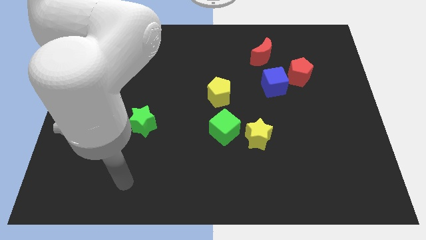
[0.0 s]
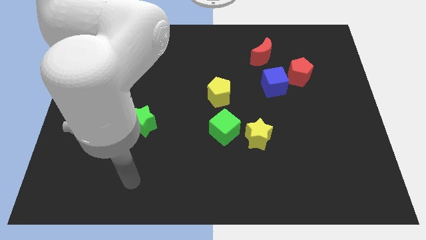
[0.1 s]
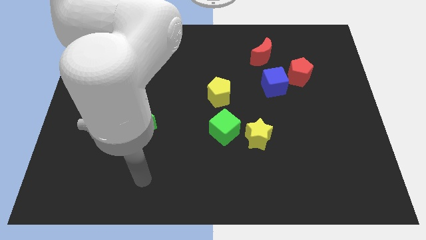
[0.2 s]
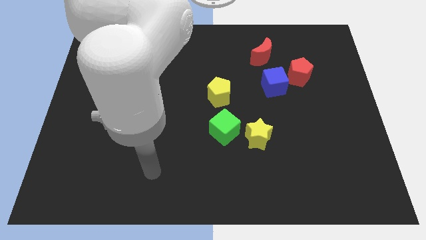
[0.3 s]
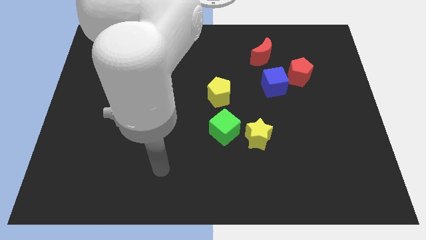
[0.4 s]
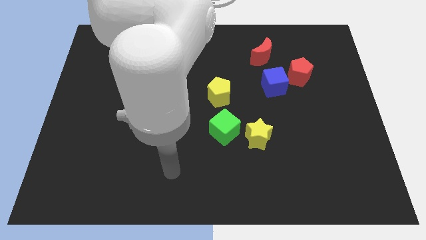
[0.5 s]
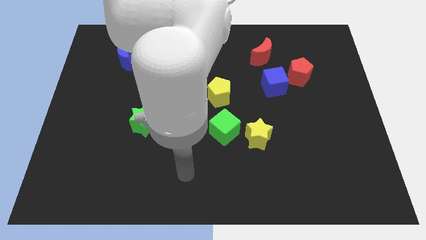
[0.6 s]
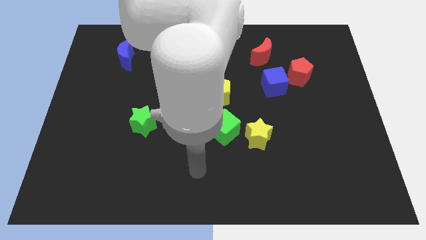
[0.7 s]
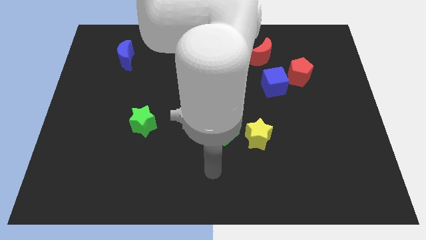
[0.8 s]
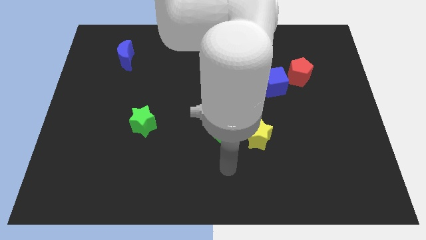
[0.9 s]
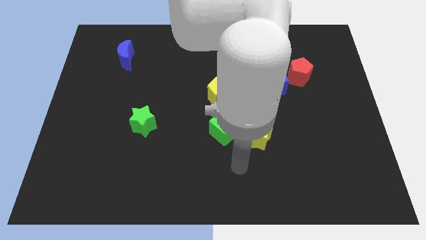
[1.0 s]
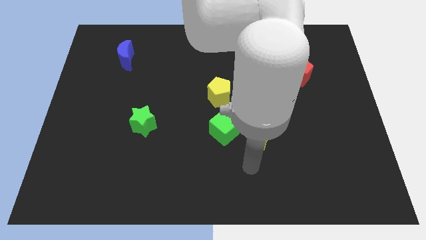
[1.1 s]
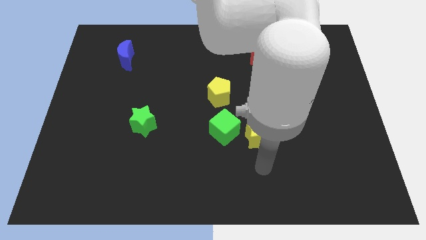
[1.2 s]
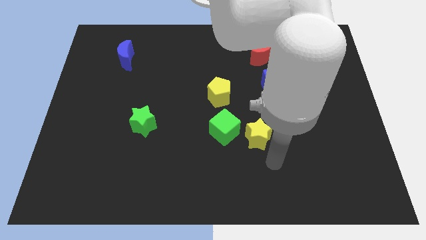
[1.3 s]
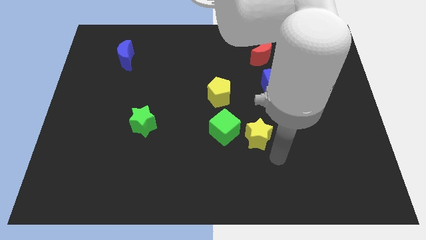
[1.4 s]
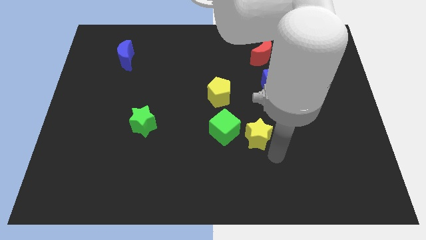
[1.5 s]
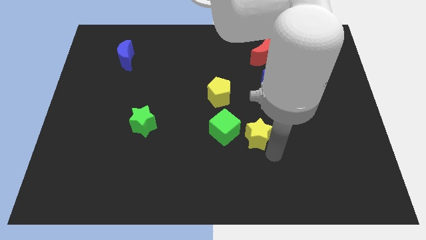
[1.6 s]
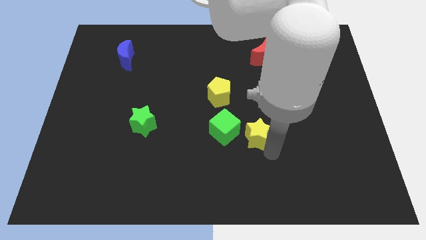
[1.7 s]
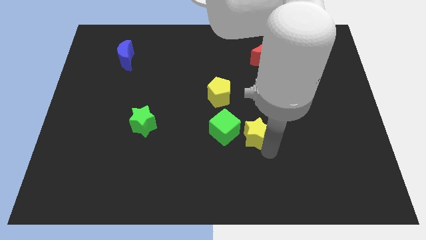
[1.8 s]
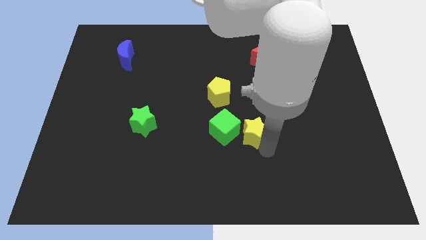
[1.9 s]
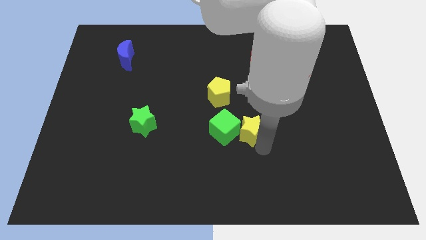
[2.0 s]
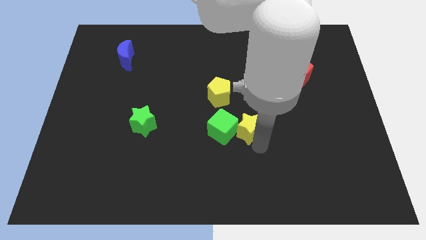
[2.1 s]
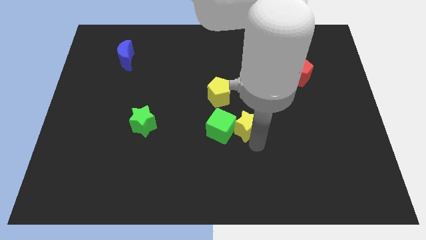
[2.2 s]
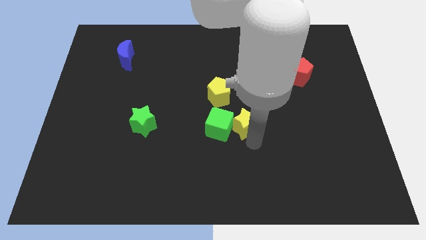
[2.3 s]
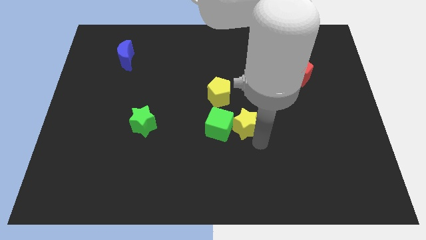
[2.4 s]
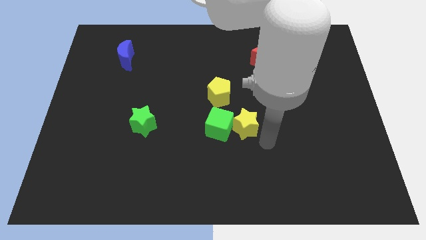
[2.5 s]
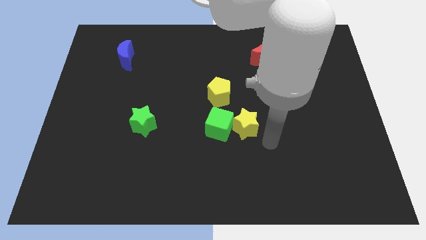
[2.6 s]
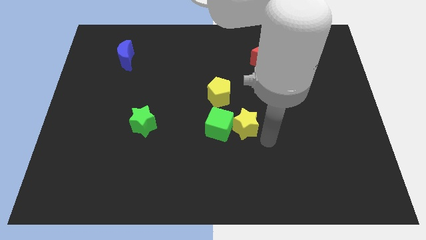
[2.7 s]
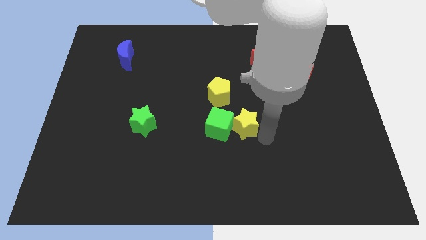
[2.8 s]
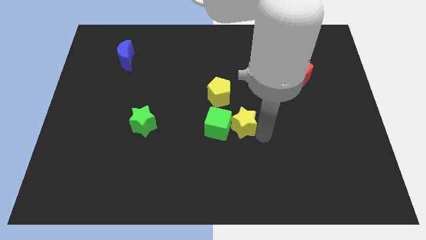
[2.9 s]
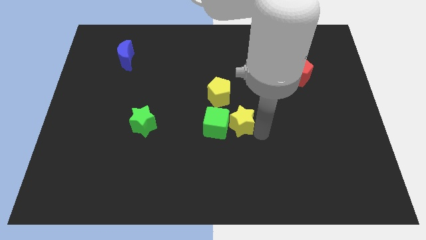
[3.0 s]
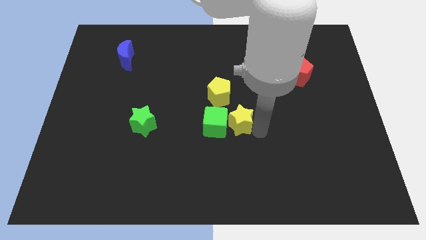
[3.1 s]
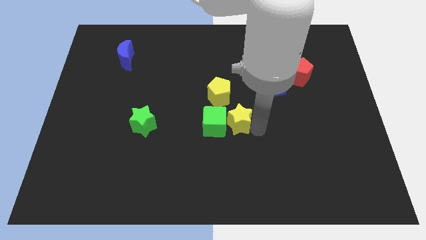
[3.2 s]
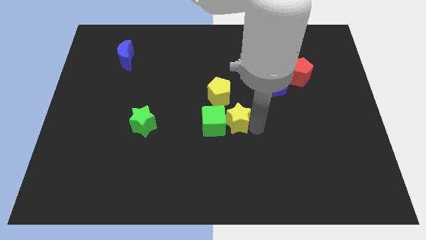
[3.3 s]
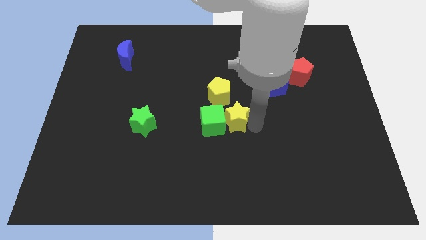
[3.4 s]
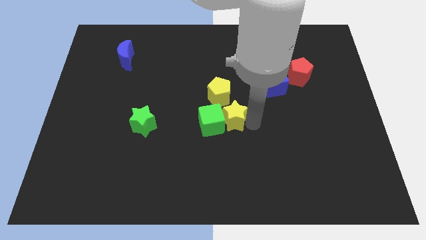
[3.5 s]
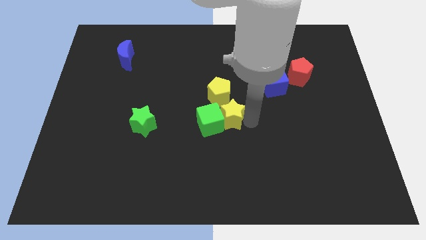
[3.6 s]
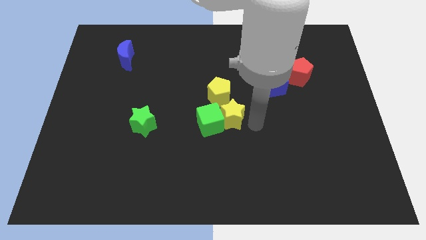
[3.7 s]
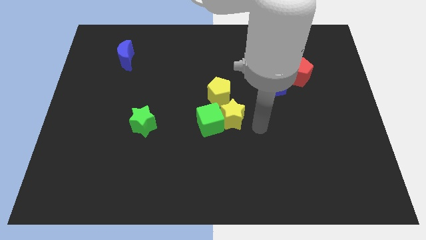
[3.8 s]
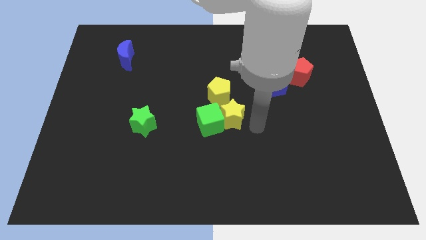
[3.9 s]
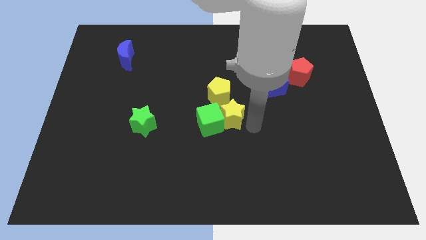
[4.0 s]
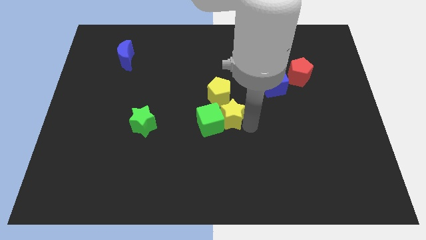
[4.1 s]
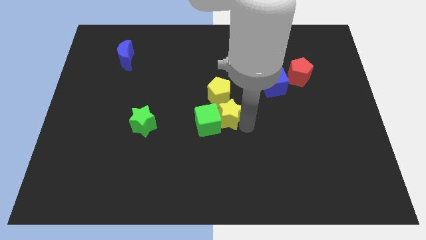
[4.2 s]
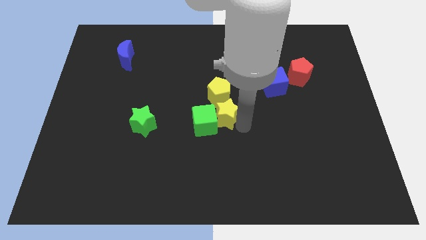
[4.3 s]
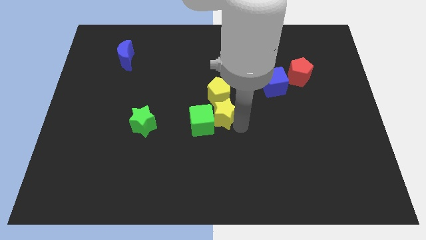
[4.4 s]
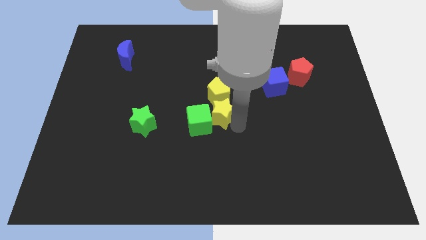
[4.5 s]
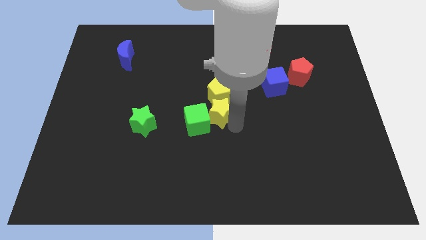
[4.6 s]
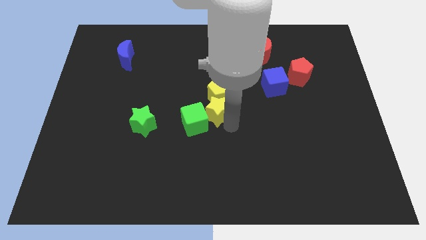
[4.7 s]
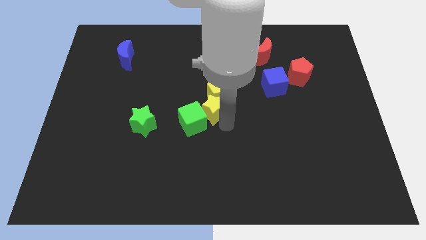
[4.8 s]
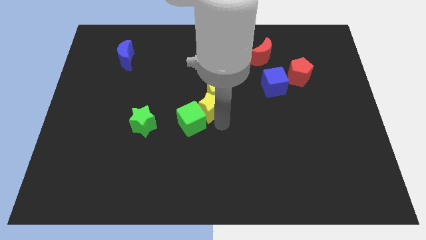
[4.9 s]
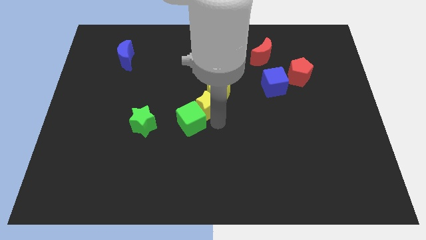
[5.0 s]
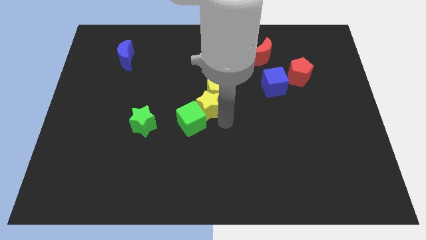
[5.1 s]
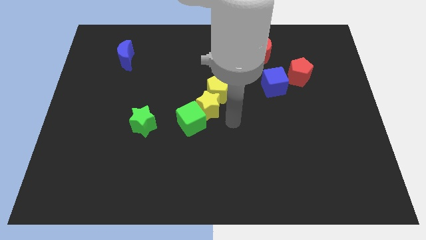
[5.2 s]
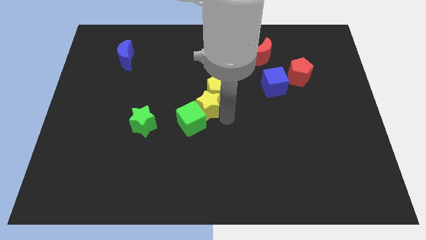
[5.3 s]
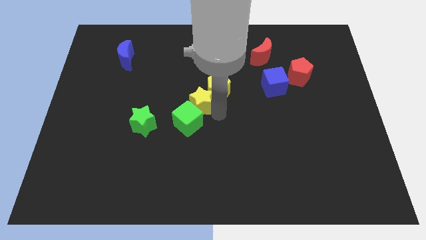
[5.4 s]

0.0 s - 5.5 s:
move the yellow star just left of the yellow pentagon

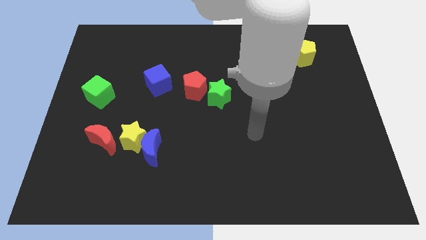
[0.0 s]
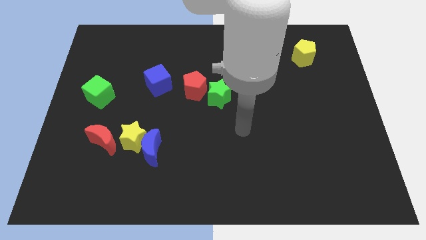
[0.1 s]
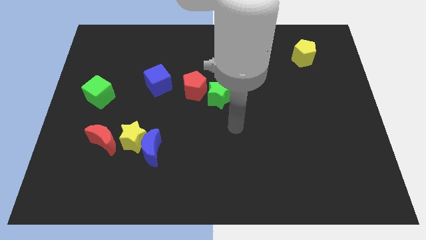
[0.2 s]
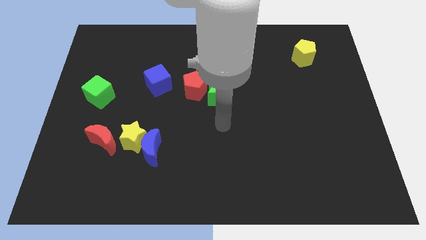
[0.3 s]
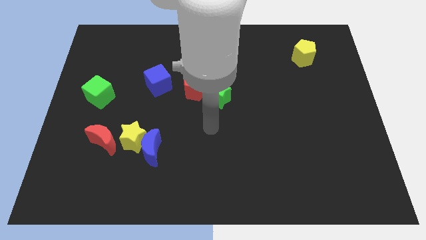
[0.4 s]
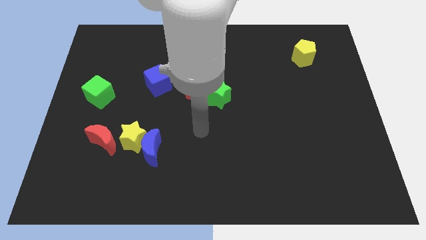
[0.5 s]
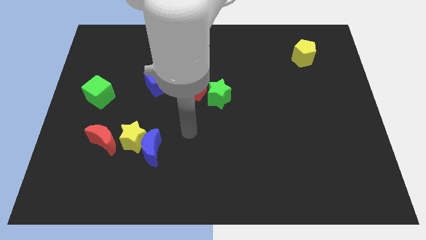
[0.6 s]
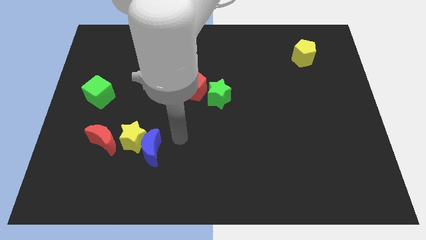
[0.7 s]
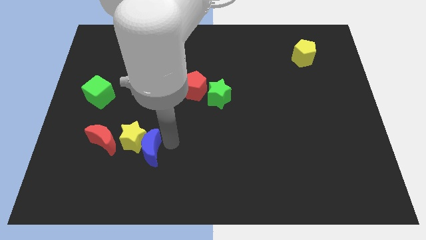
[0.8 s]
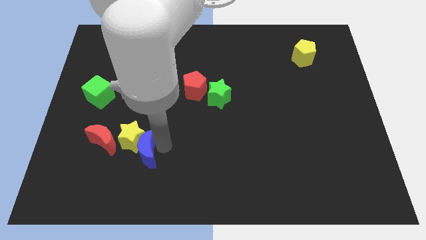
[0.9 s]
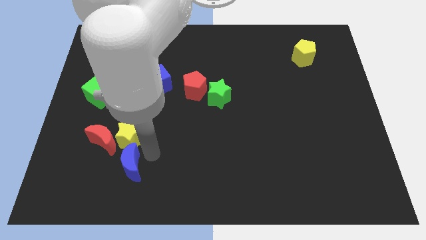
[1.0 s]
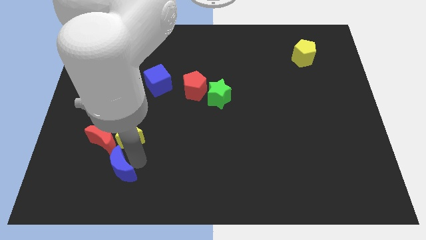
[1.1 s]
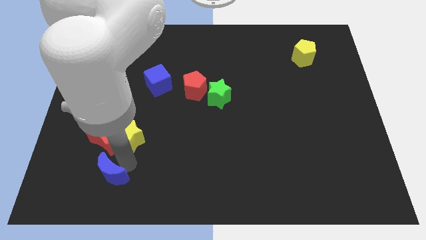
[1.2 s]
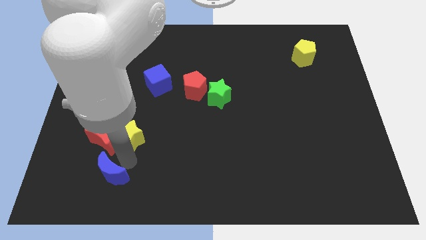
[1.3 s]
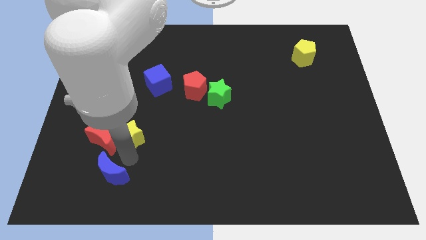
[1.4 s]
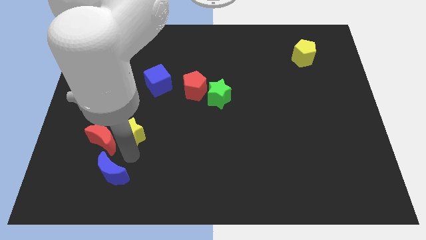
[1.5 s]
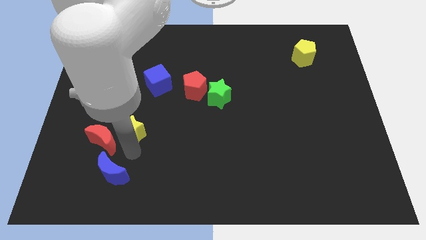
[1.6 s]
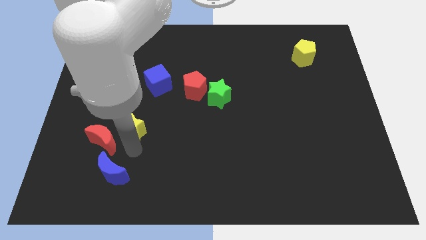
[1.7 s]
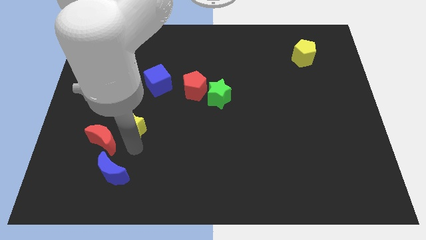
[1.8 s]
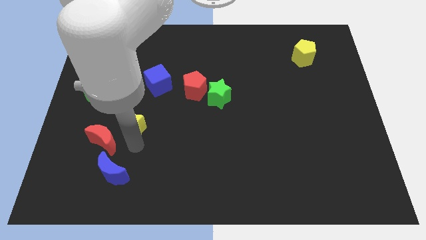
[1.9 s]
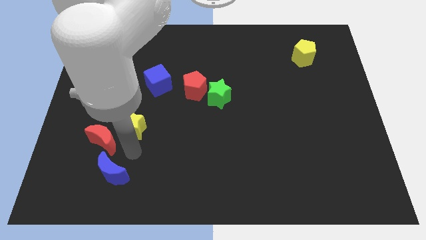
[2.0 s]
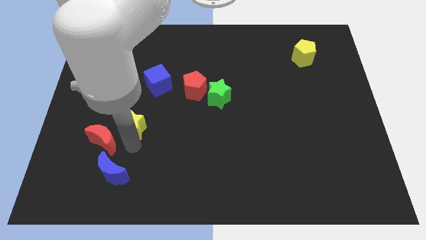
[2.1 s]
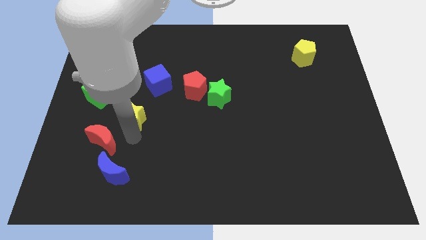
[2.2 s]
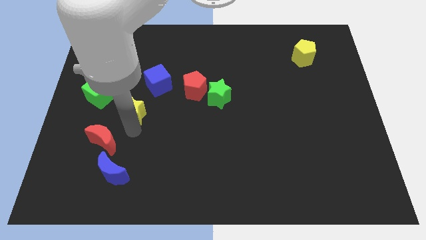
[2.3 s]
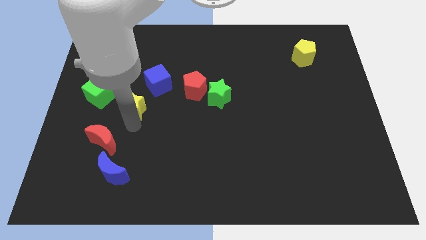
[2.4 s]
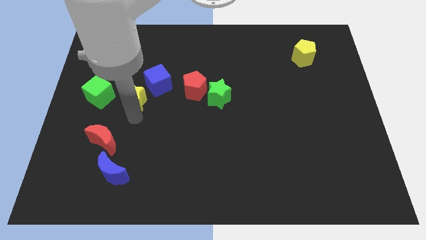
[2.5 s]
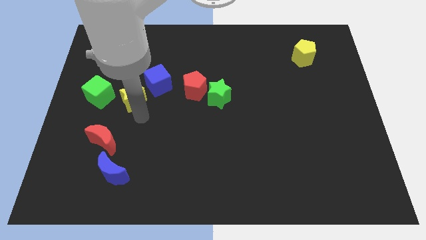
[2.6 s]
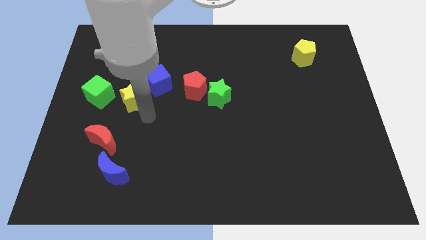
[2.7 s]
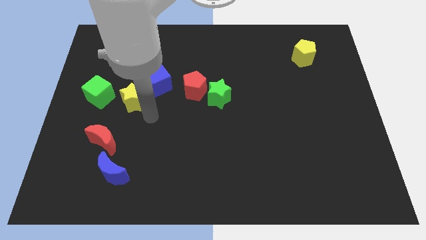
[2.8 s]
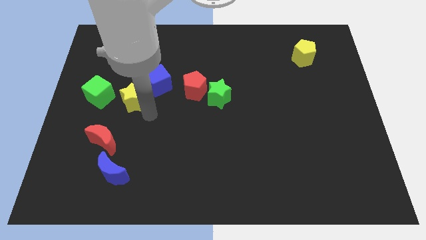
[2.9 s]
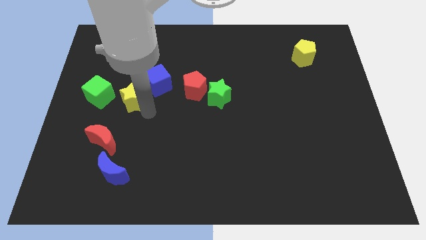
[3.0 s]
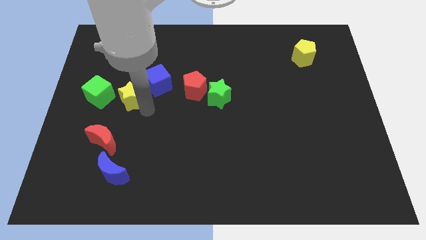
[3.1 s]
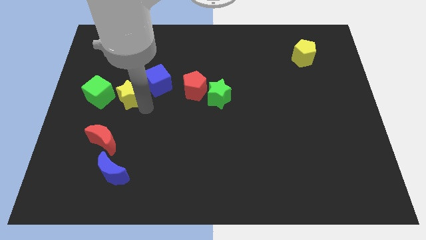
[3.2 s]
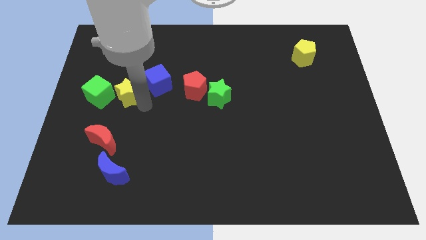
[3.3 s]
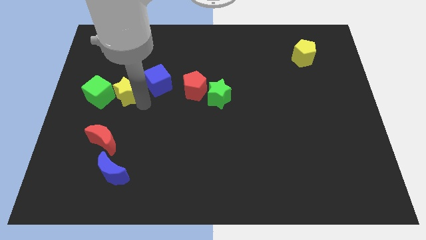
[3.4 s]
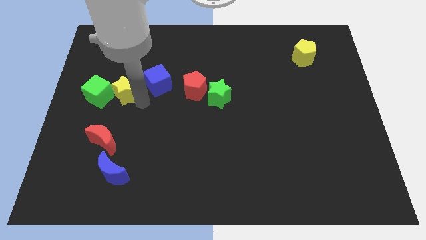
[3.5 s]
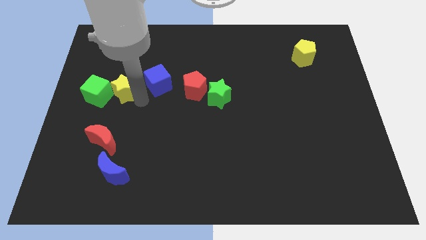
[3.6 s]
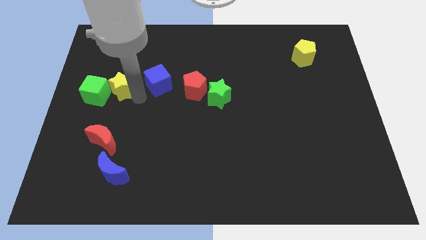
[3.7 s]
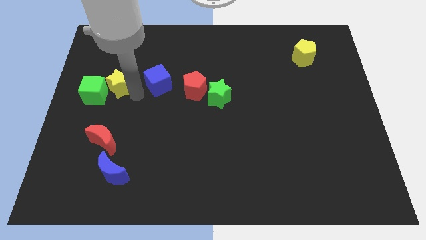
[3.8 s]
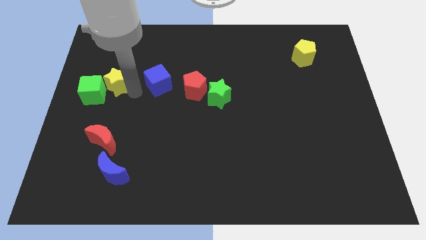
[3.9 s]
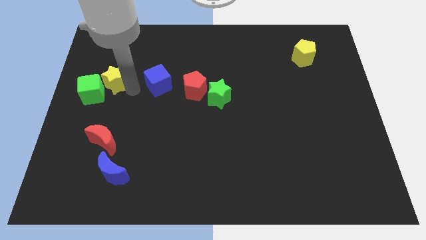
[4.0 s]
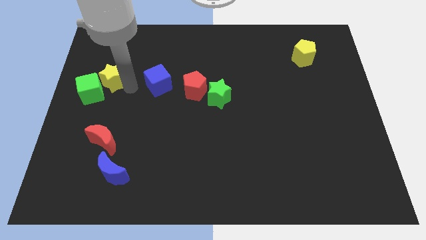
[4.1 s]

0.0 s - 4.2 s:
move the yellow star to the top of the green cube
